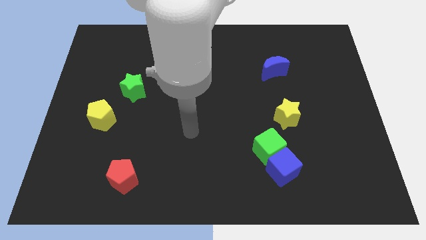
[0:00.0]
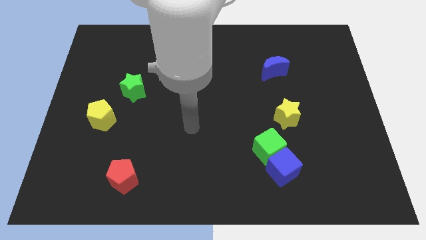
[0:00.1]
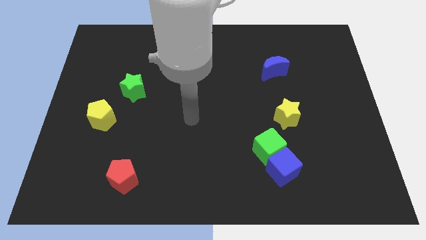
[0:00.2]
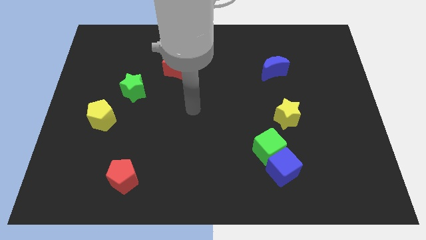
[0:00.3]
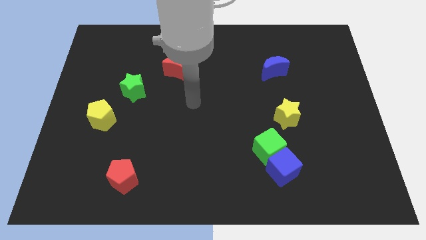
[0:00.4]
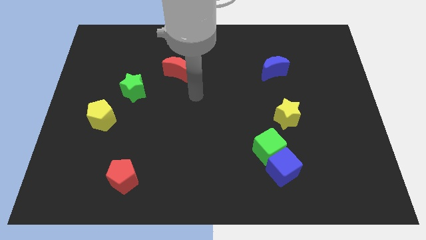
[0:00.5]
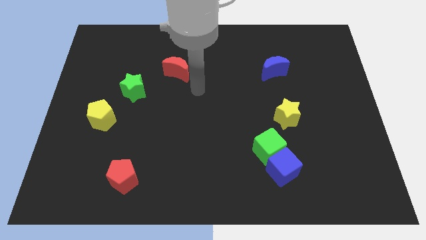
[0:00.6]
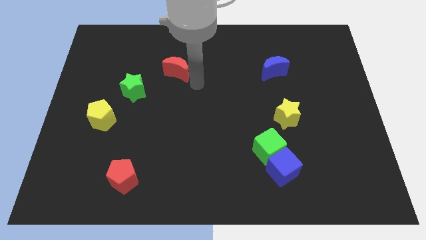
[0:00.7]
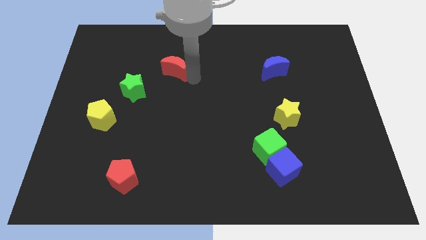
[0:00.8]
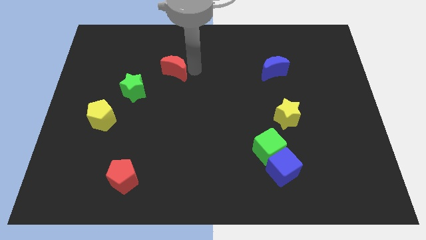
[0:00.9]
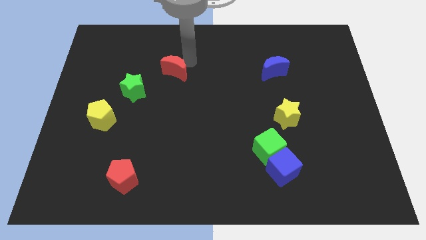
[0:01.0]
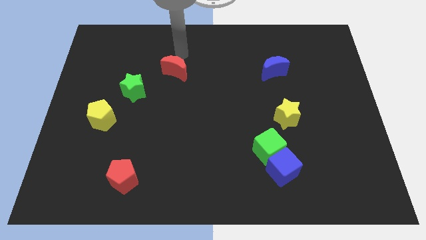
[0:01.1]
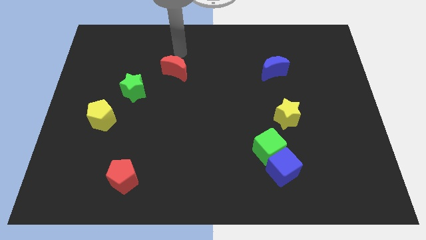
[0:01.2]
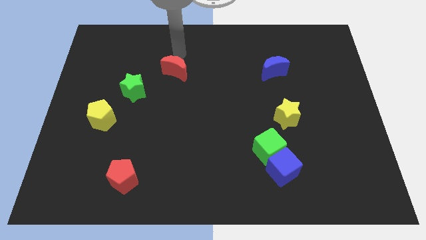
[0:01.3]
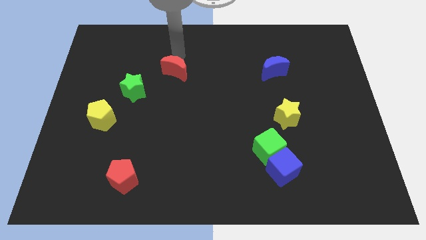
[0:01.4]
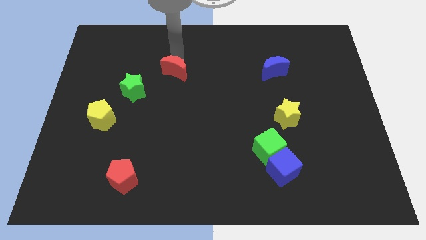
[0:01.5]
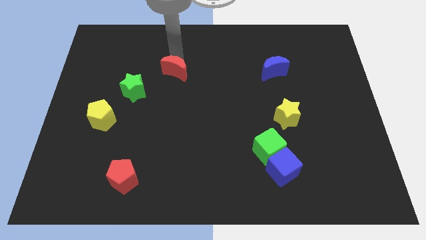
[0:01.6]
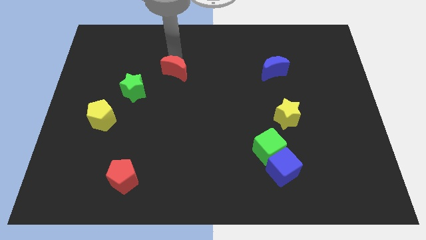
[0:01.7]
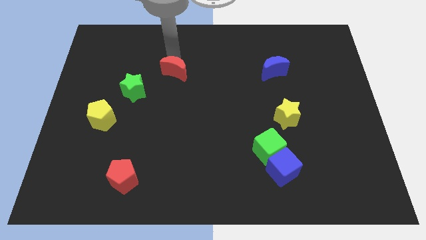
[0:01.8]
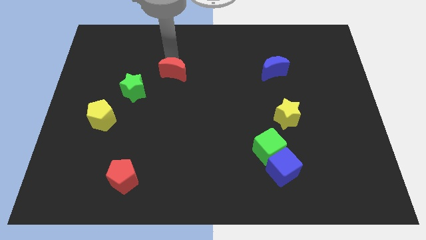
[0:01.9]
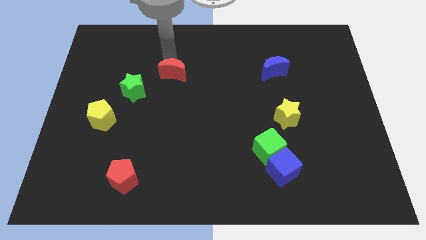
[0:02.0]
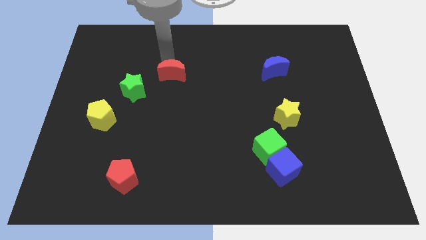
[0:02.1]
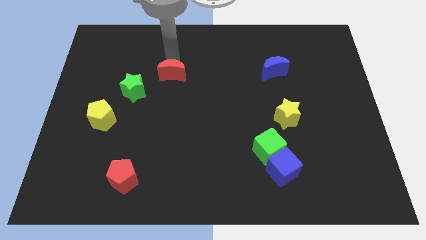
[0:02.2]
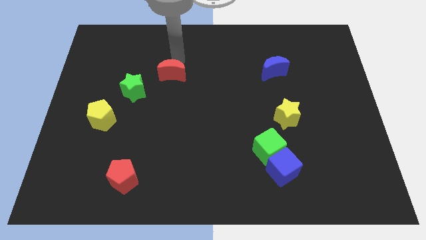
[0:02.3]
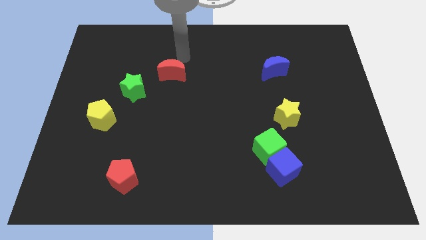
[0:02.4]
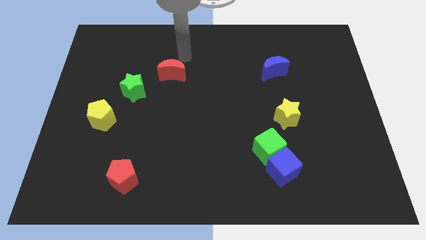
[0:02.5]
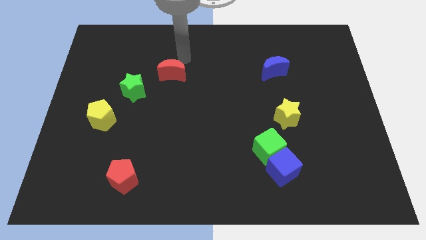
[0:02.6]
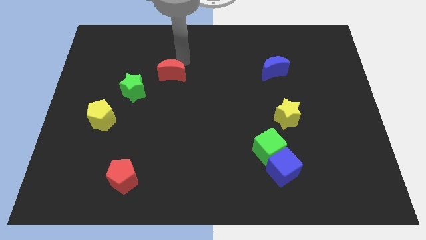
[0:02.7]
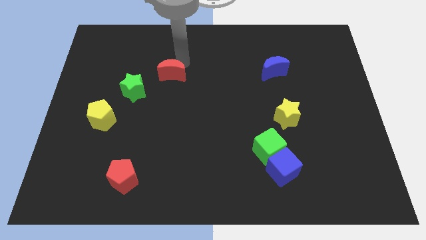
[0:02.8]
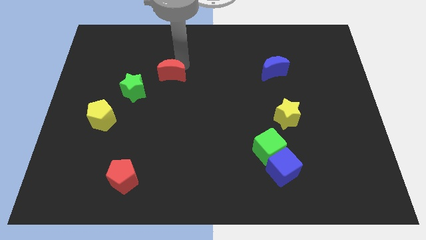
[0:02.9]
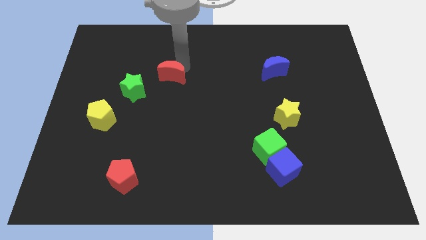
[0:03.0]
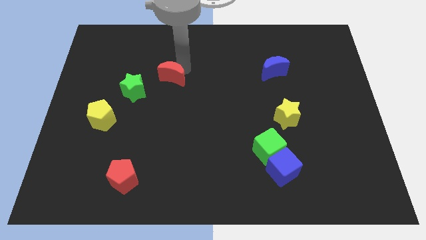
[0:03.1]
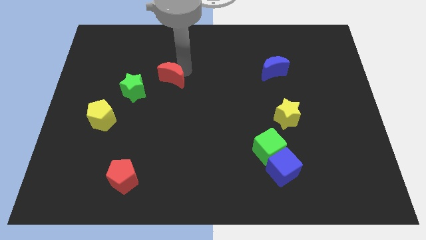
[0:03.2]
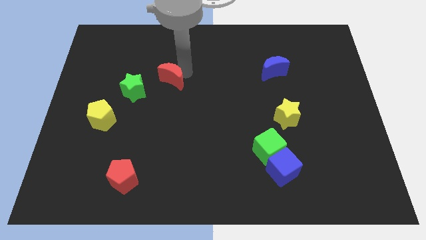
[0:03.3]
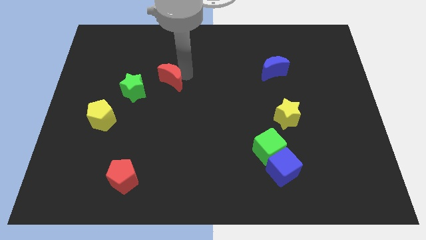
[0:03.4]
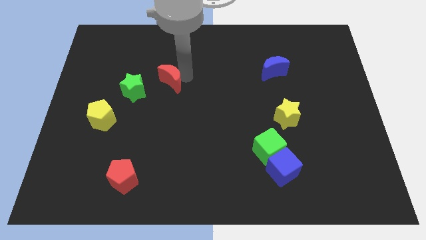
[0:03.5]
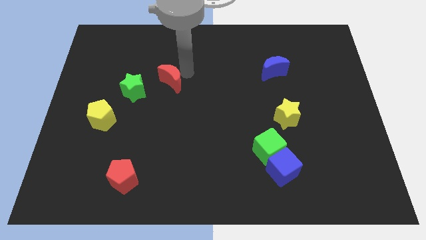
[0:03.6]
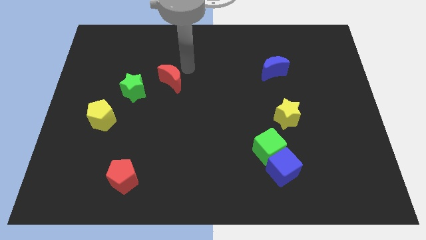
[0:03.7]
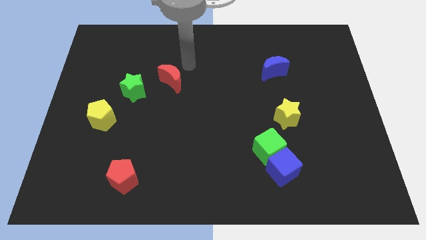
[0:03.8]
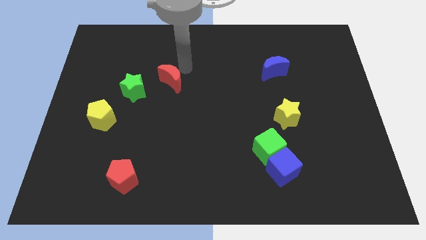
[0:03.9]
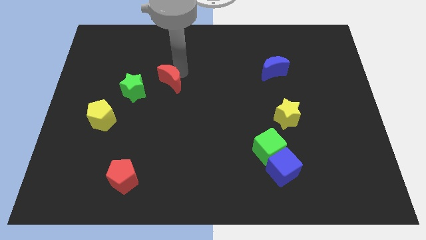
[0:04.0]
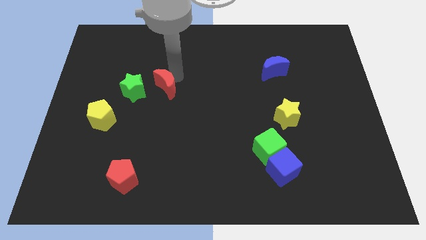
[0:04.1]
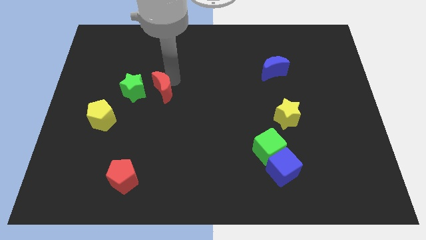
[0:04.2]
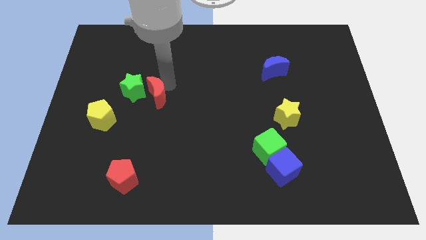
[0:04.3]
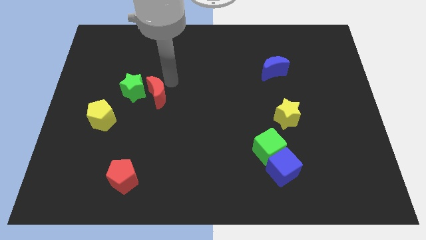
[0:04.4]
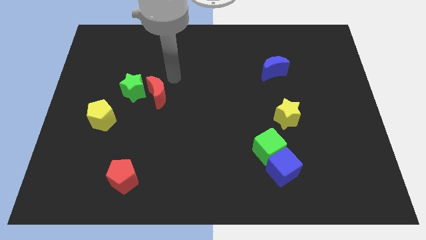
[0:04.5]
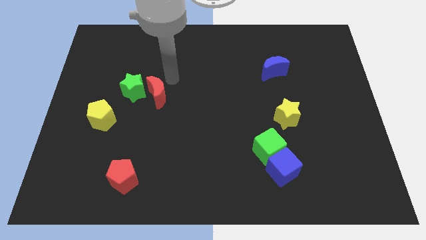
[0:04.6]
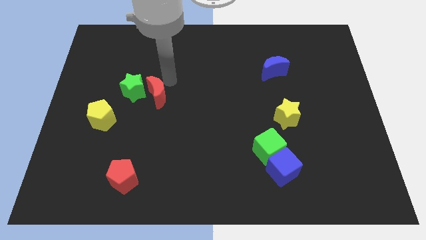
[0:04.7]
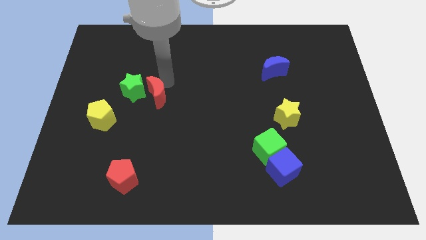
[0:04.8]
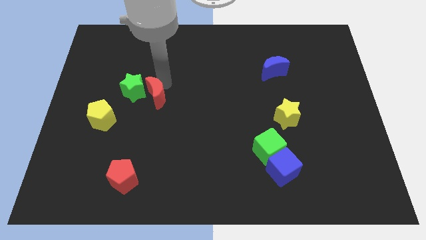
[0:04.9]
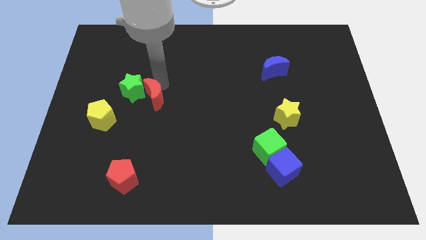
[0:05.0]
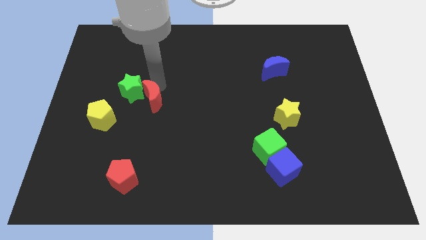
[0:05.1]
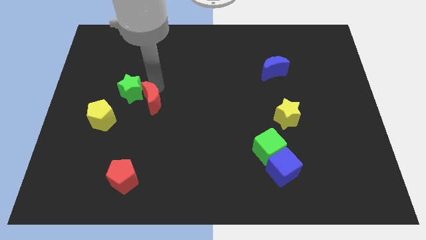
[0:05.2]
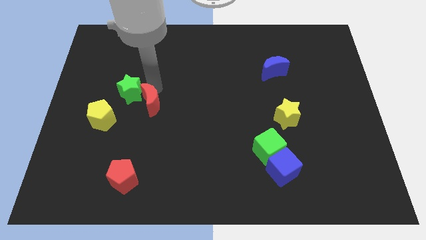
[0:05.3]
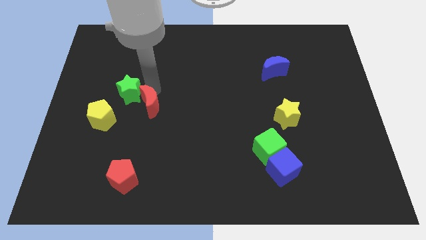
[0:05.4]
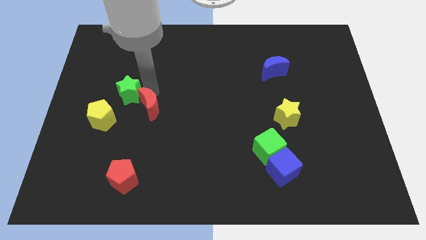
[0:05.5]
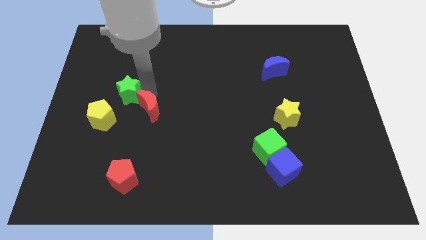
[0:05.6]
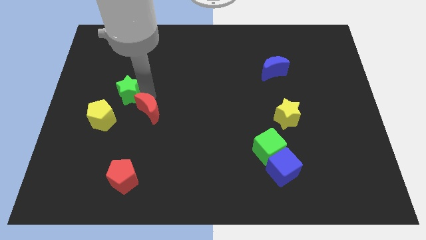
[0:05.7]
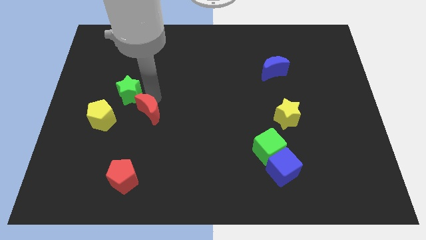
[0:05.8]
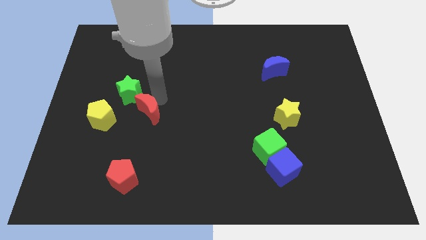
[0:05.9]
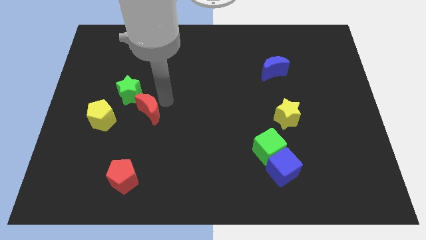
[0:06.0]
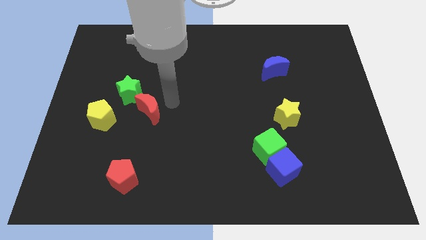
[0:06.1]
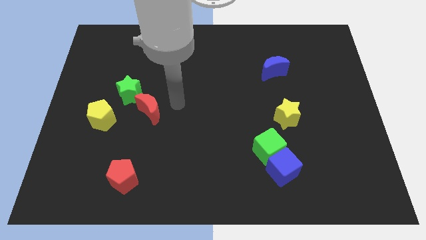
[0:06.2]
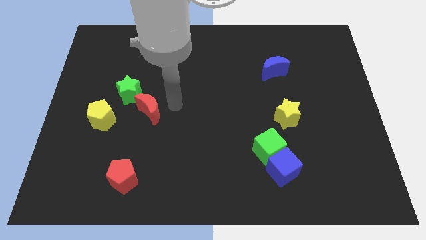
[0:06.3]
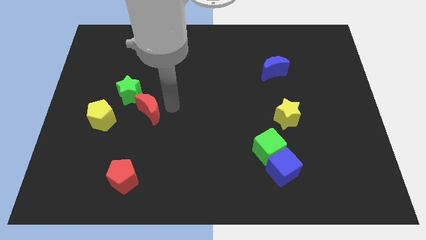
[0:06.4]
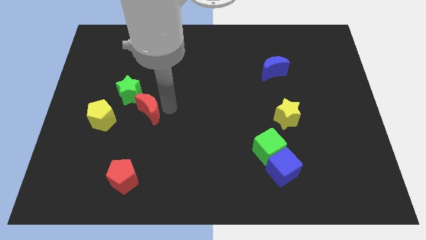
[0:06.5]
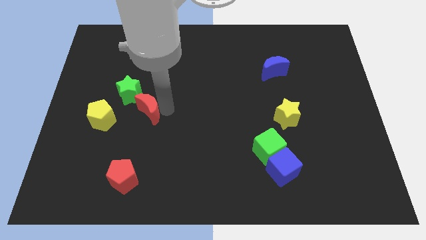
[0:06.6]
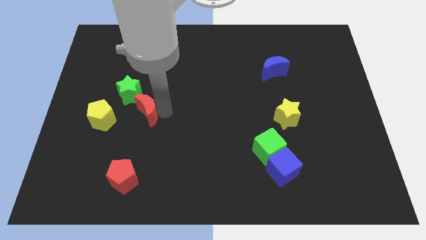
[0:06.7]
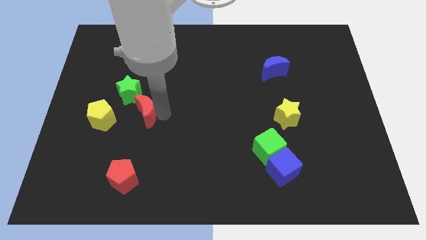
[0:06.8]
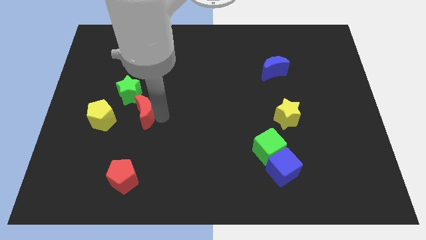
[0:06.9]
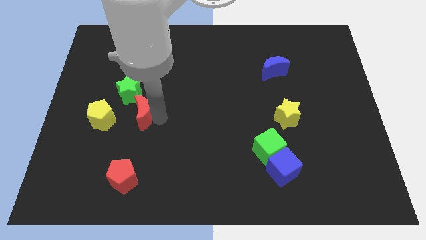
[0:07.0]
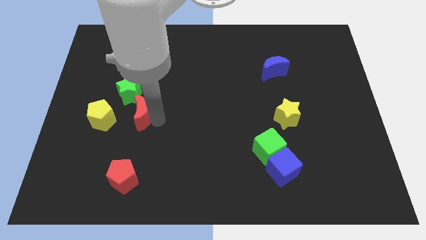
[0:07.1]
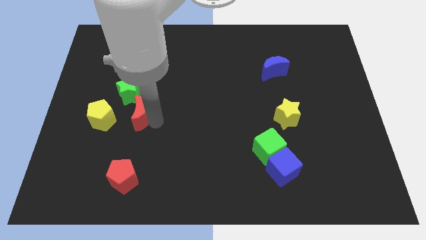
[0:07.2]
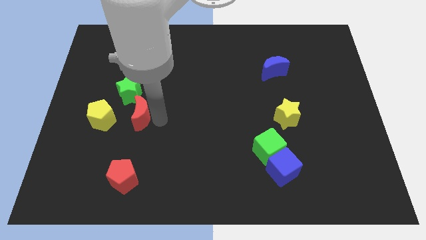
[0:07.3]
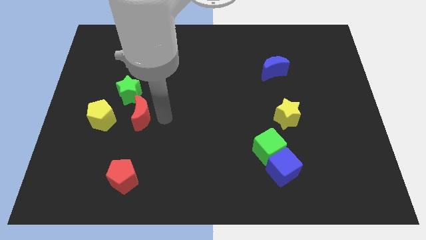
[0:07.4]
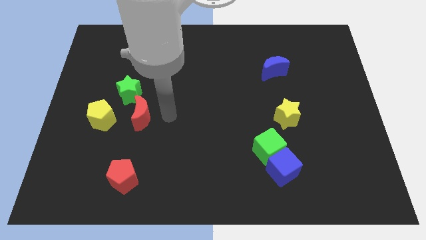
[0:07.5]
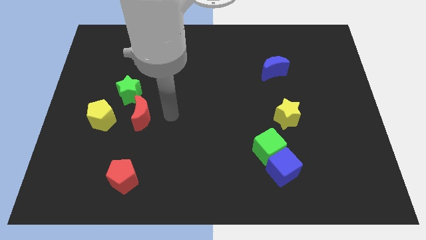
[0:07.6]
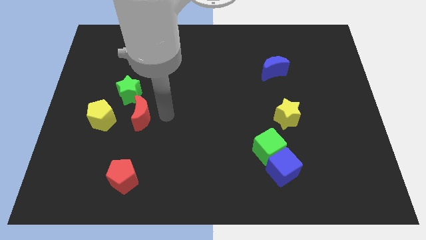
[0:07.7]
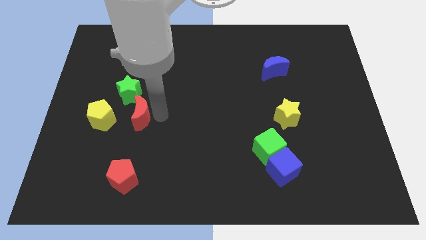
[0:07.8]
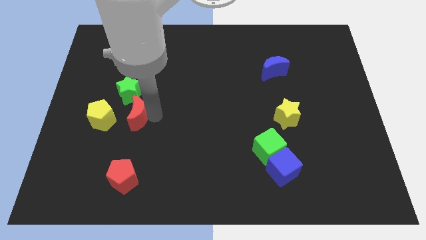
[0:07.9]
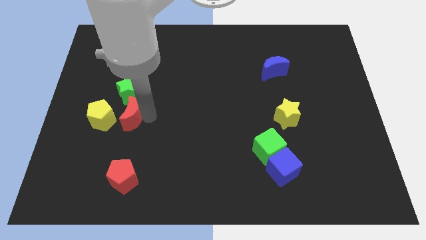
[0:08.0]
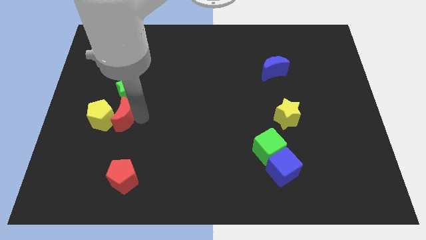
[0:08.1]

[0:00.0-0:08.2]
move the red moon towards the yellow pentagon

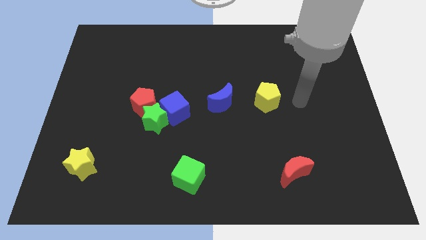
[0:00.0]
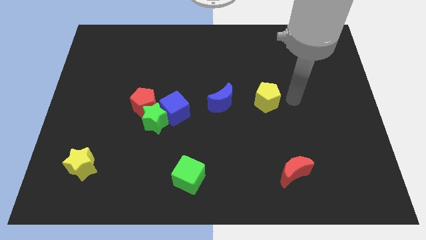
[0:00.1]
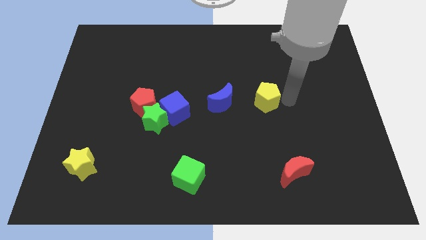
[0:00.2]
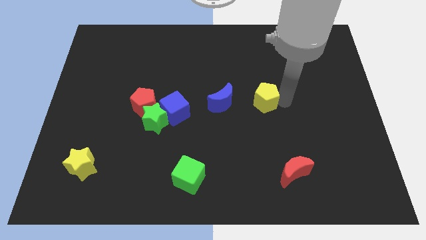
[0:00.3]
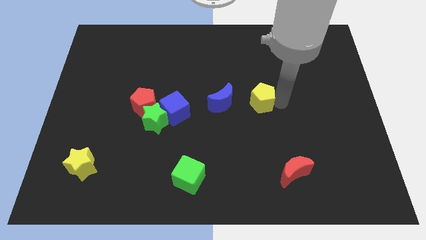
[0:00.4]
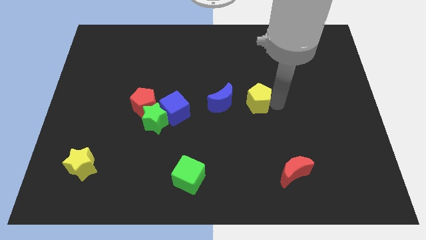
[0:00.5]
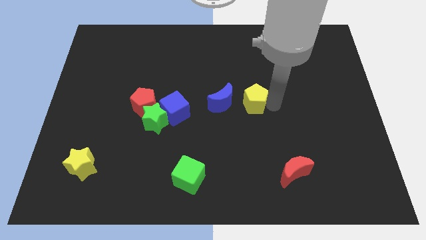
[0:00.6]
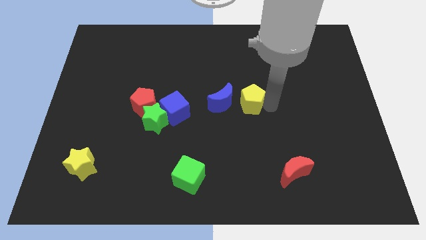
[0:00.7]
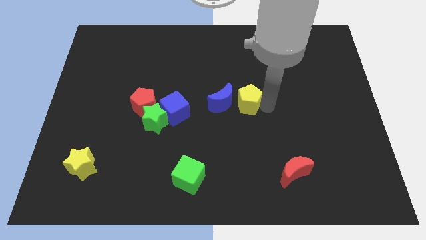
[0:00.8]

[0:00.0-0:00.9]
slide the yellow pentagon next to the blue moon
